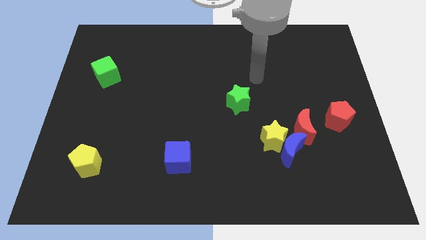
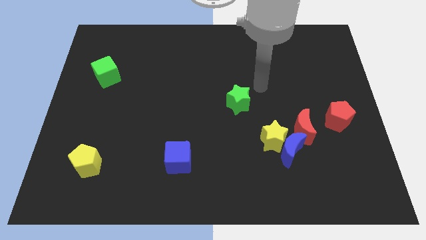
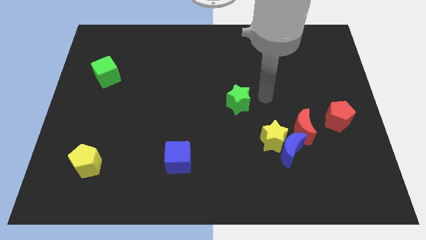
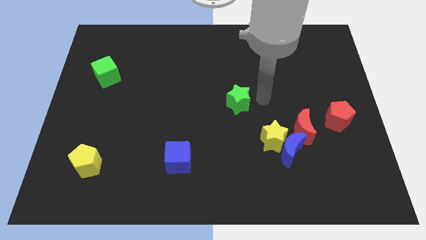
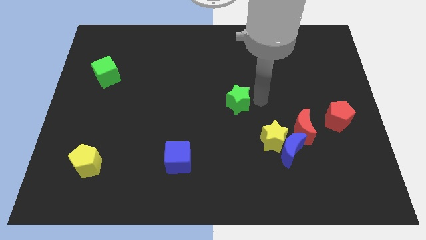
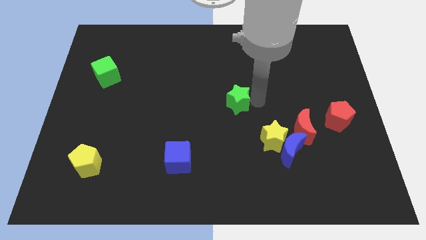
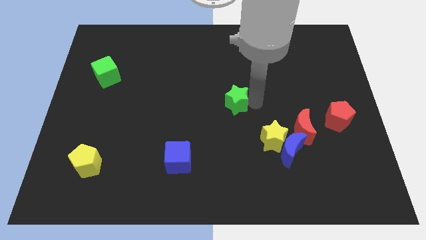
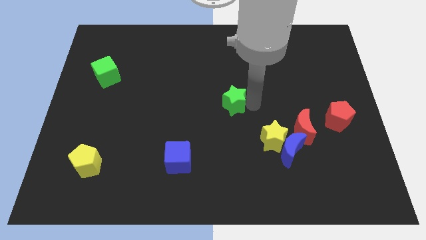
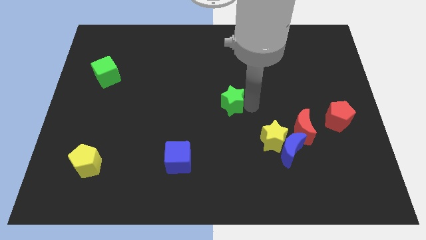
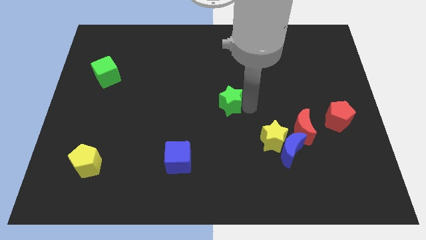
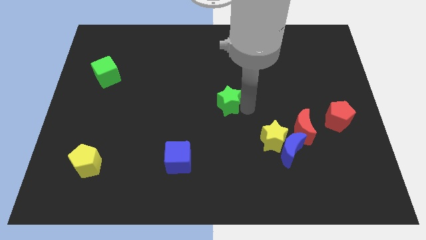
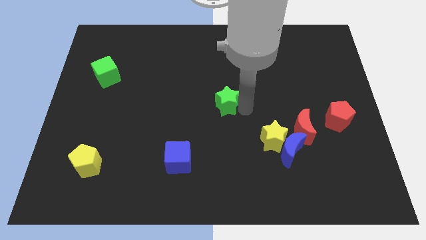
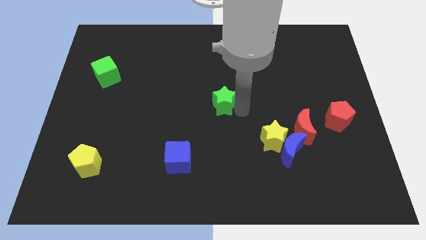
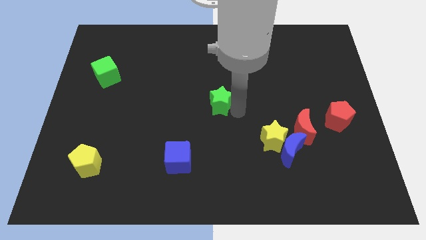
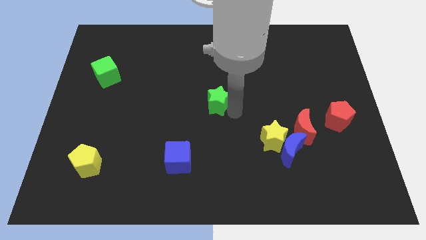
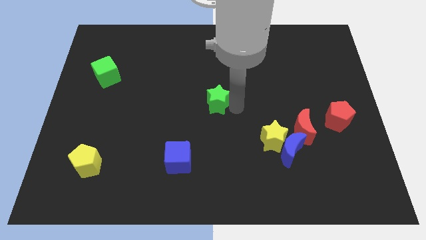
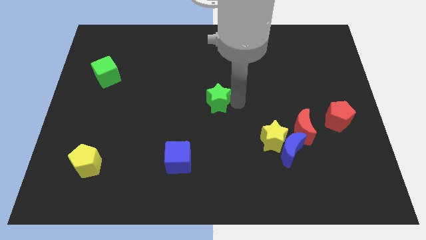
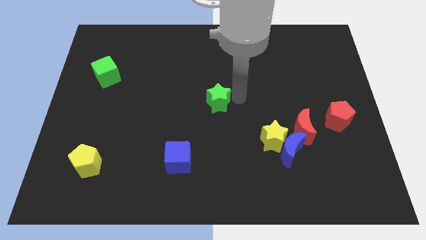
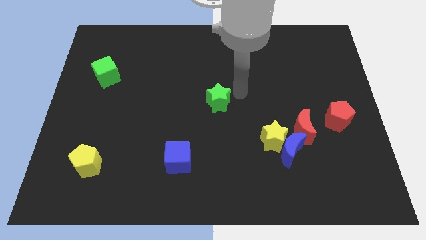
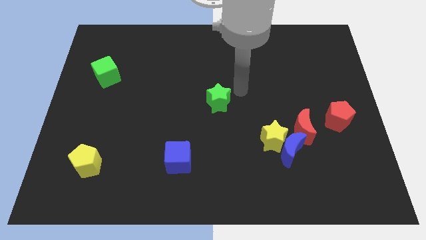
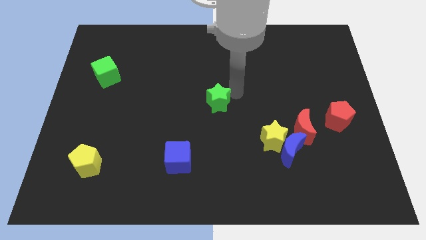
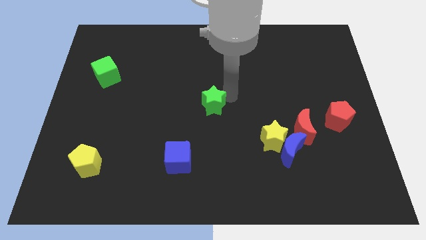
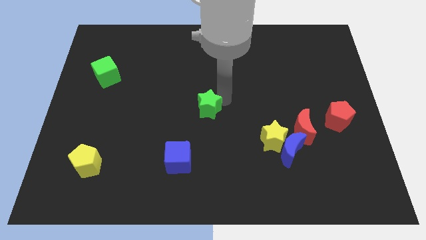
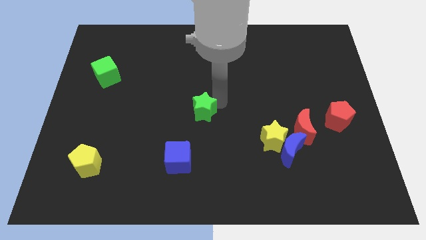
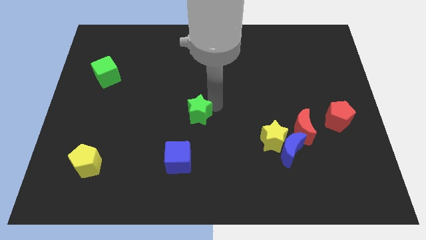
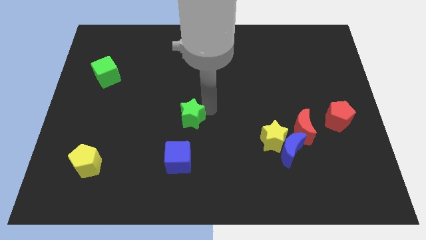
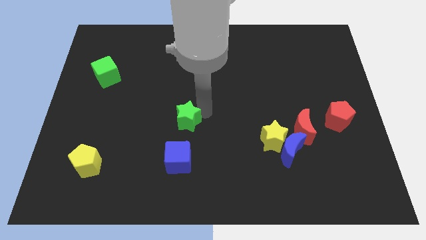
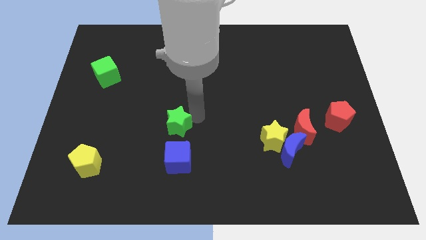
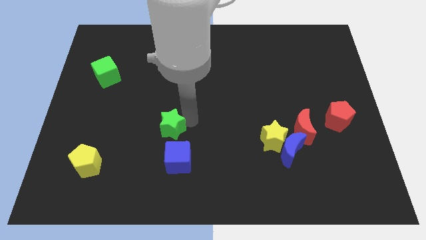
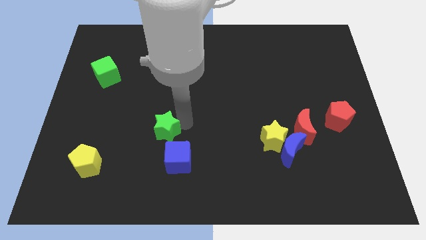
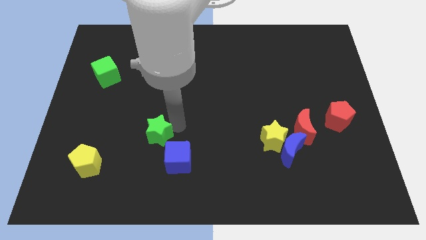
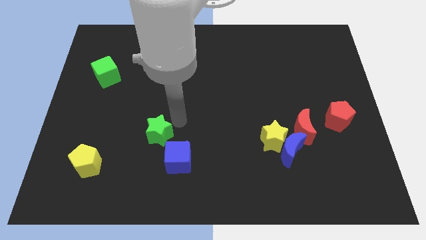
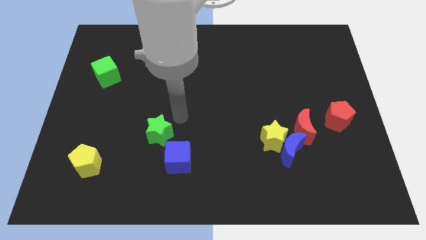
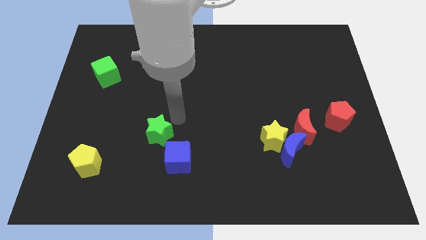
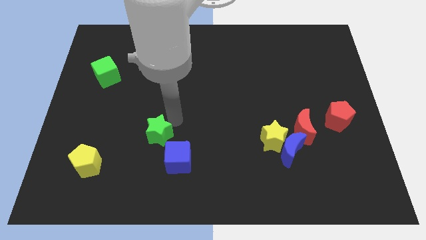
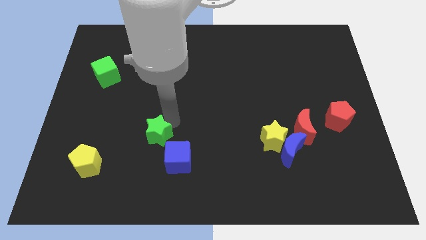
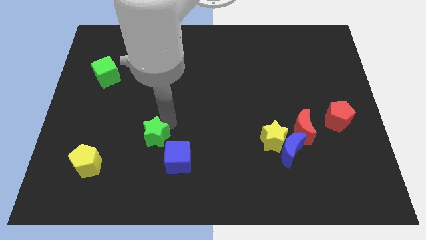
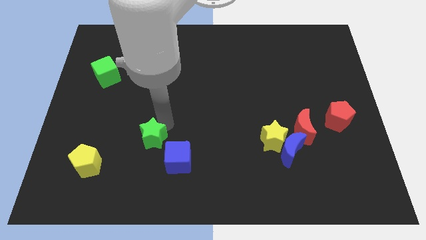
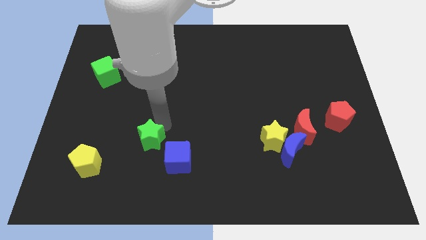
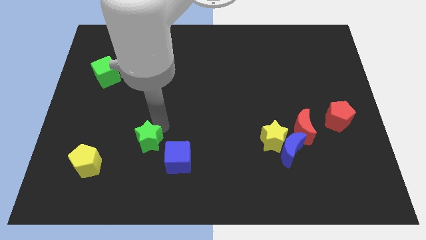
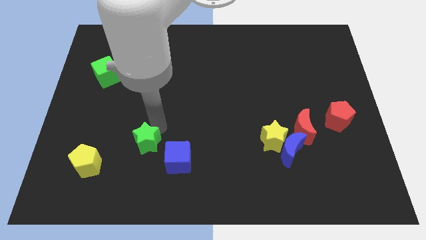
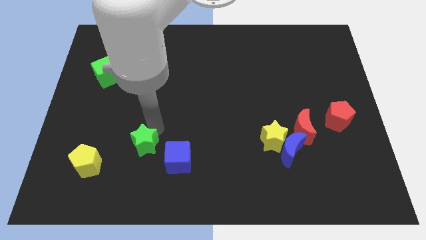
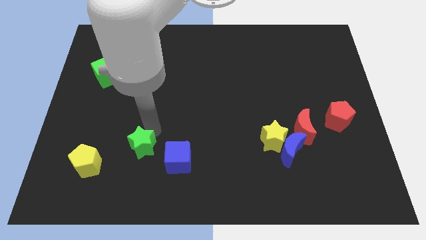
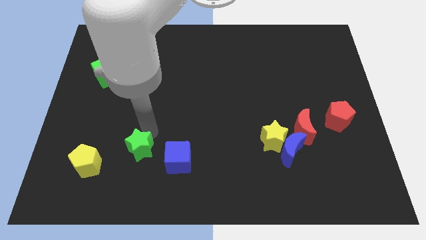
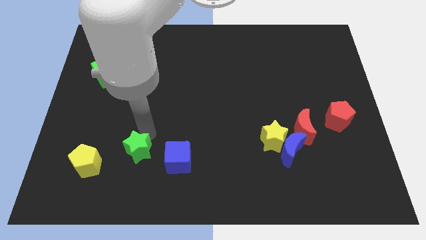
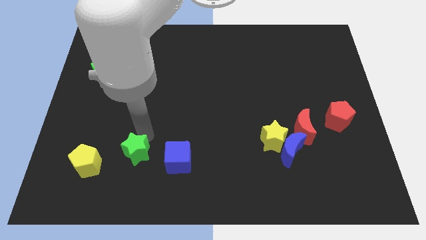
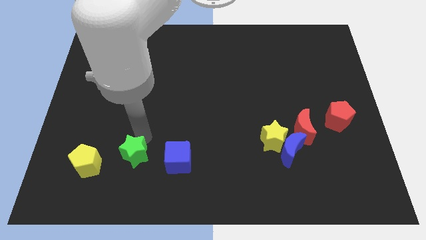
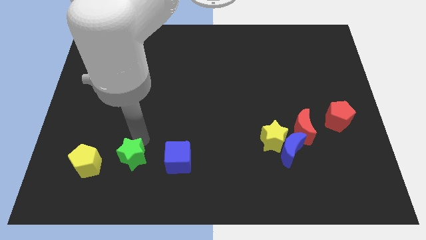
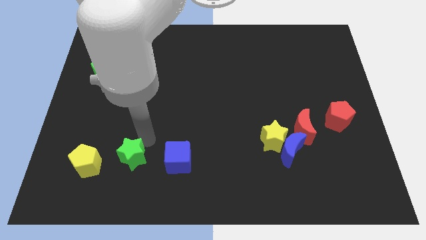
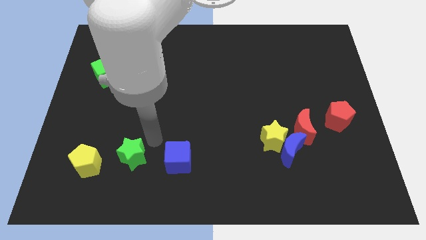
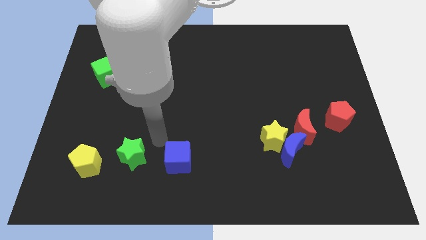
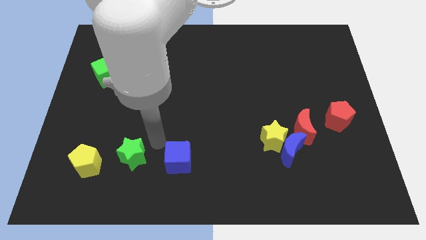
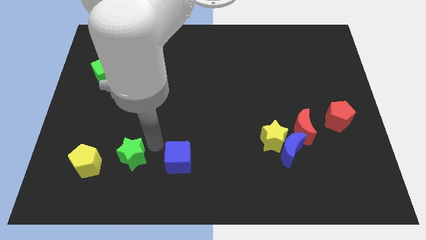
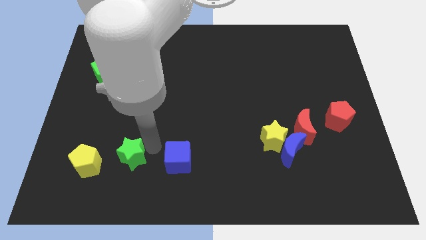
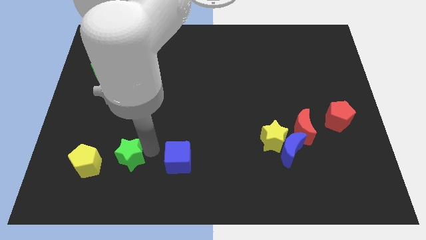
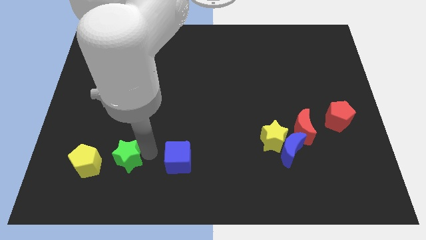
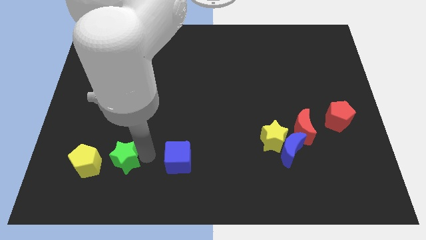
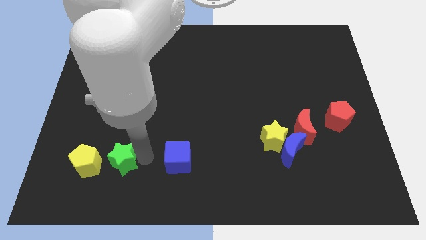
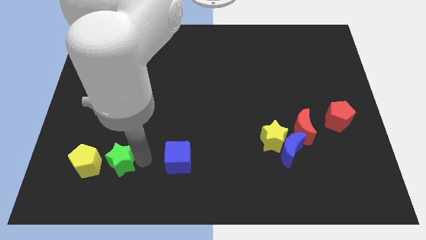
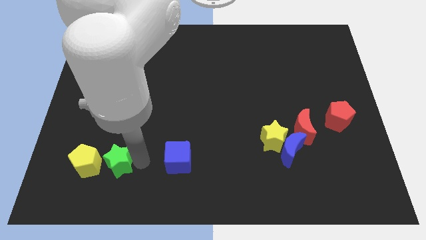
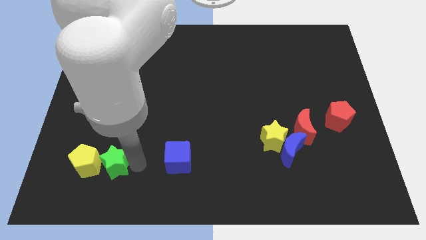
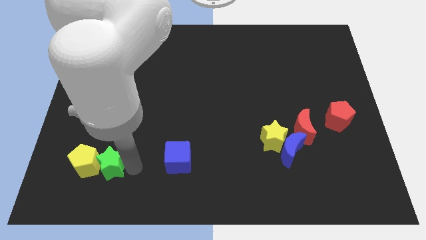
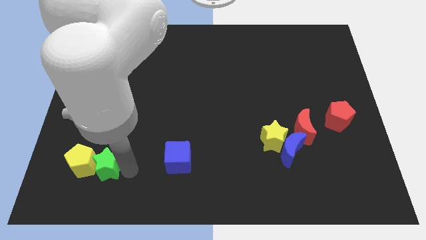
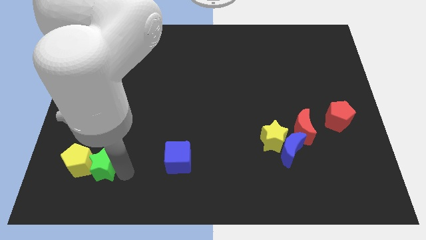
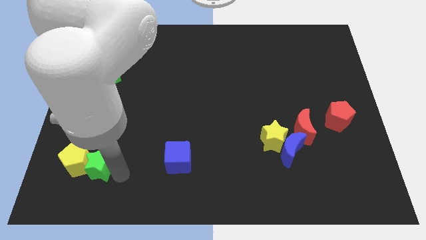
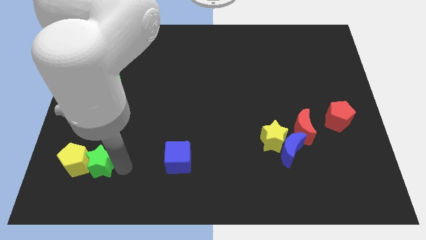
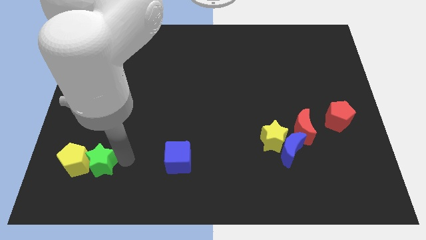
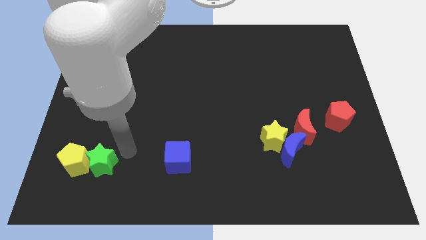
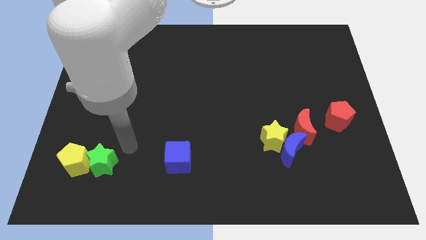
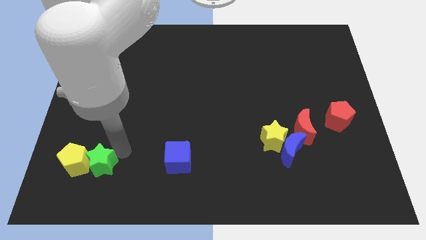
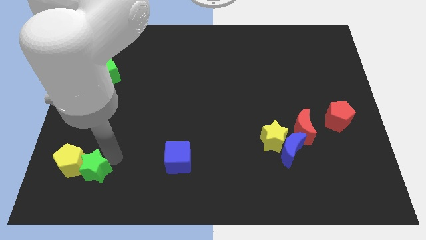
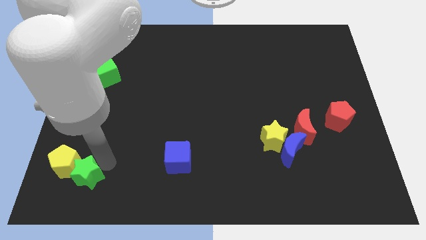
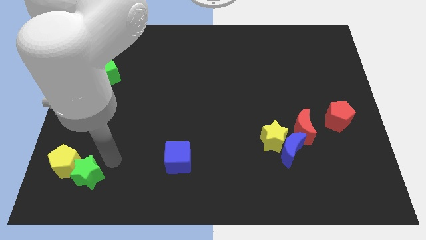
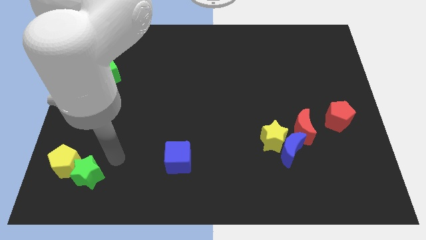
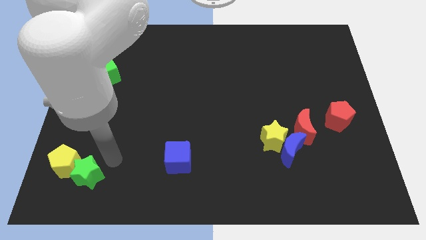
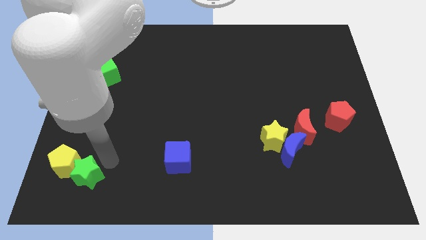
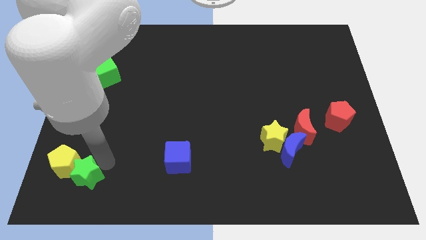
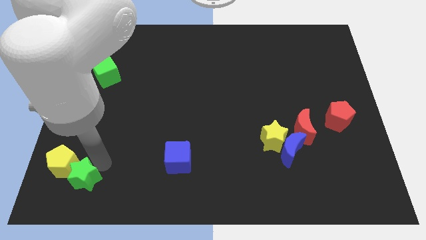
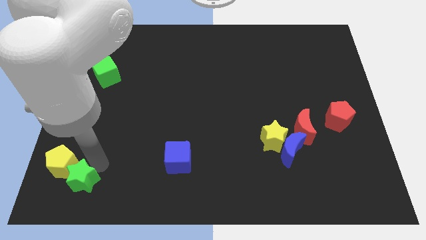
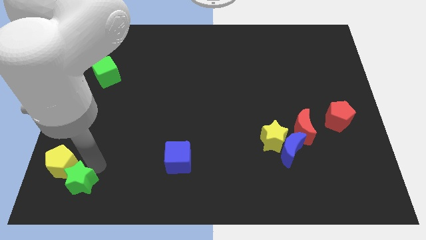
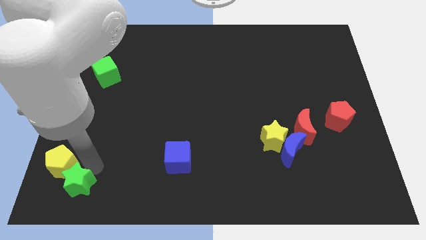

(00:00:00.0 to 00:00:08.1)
put the green star to the bottom left corner
